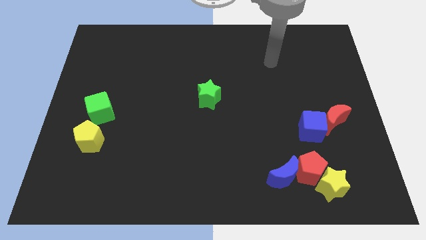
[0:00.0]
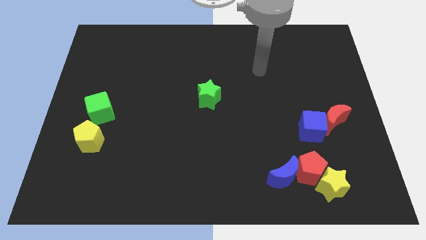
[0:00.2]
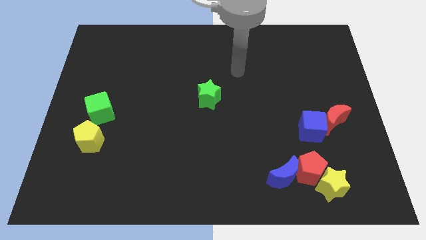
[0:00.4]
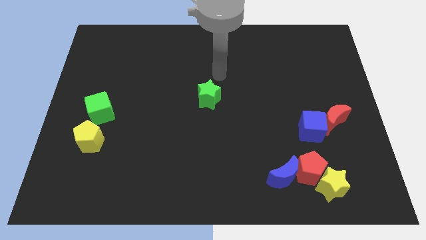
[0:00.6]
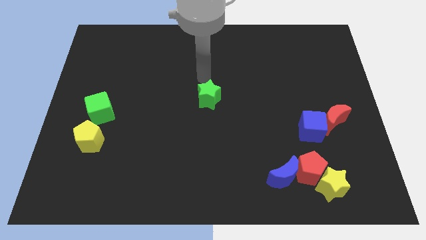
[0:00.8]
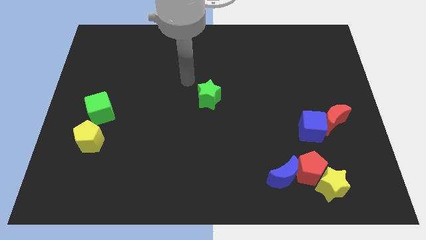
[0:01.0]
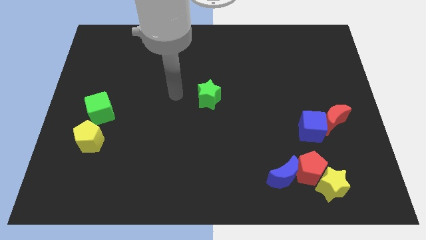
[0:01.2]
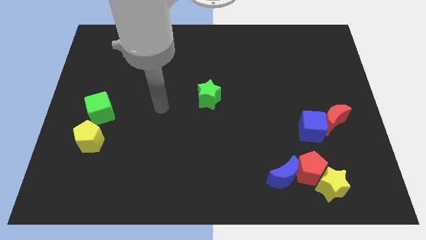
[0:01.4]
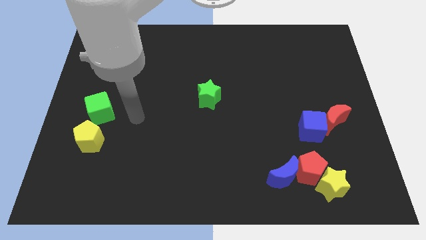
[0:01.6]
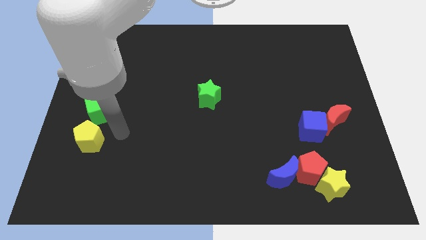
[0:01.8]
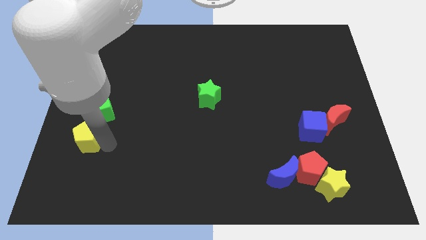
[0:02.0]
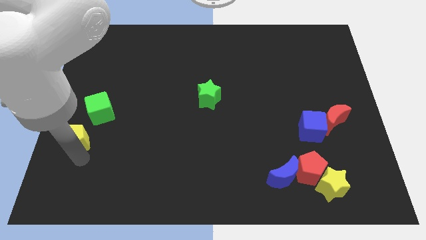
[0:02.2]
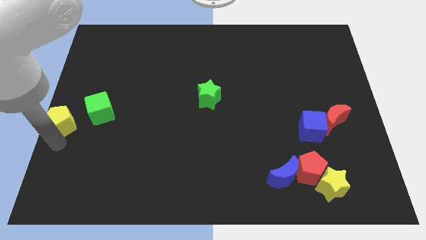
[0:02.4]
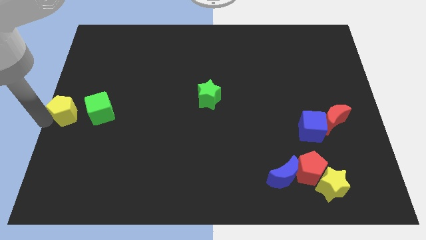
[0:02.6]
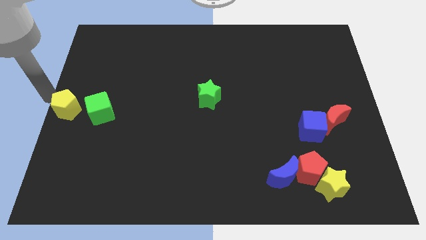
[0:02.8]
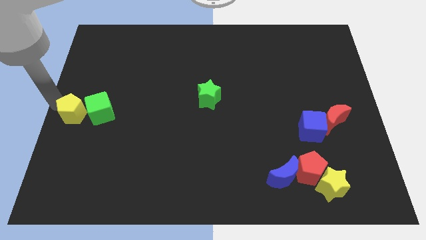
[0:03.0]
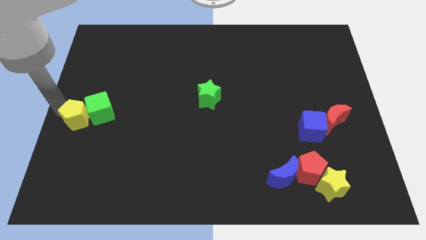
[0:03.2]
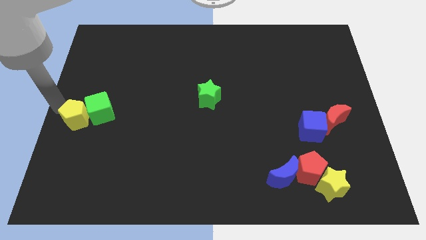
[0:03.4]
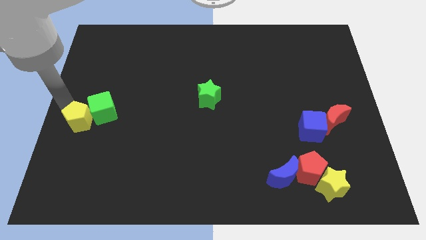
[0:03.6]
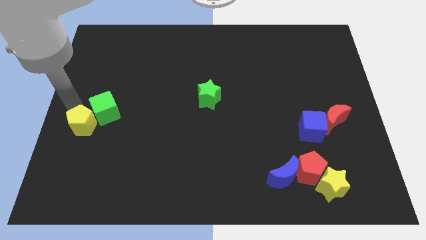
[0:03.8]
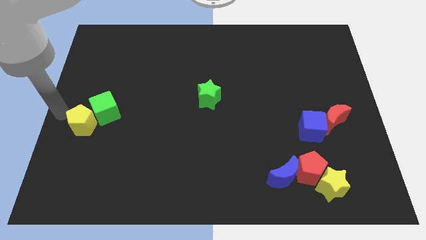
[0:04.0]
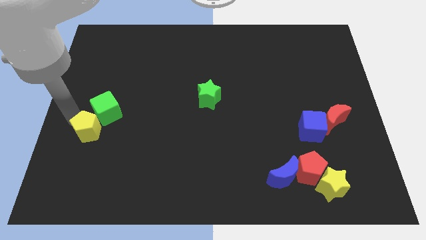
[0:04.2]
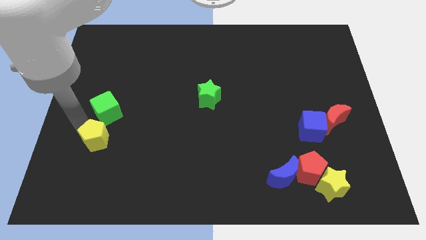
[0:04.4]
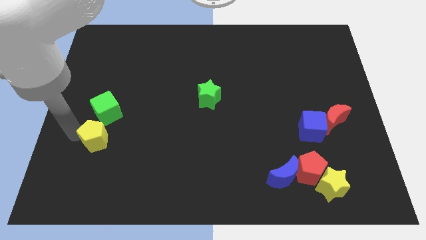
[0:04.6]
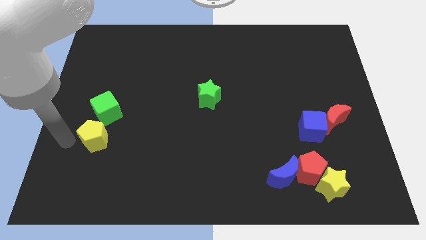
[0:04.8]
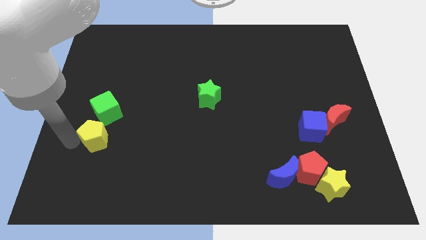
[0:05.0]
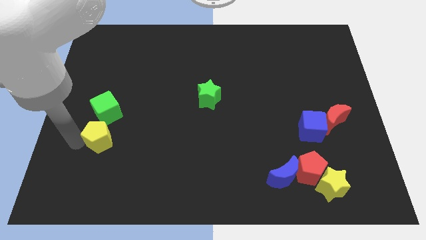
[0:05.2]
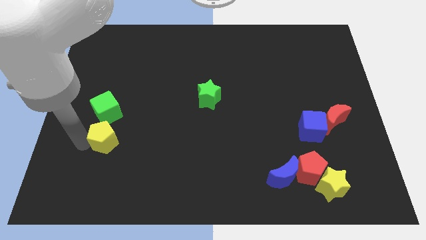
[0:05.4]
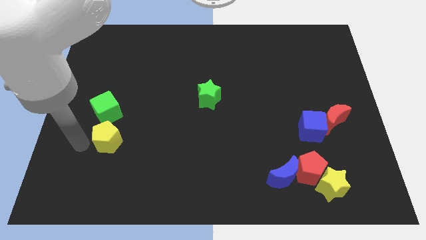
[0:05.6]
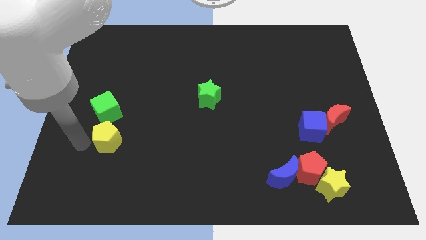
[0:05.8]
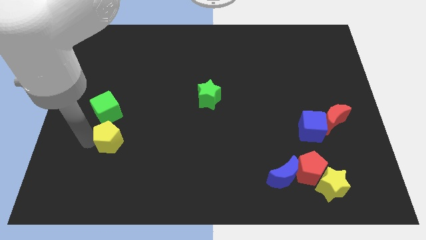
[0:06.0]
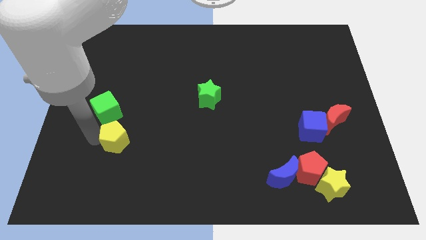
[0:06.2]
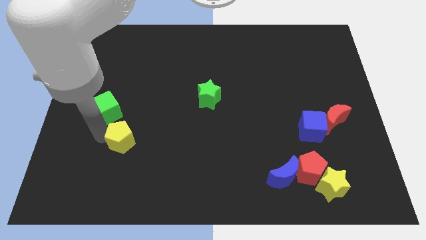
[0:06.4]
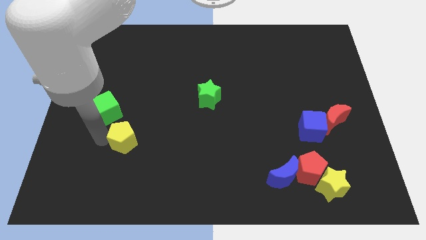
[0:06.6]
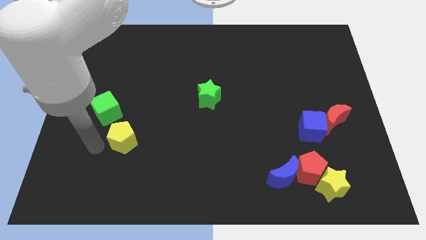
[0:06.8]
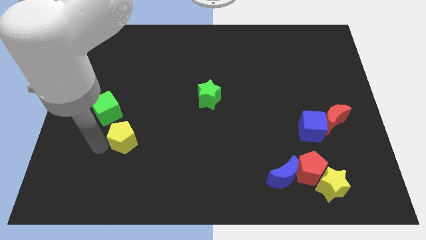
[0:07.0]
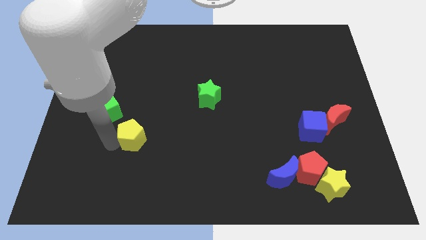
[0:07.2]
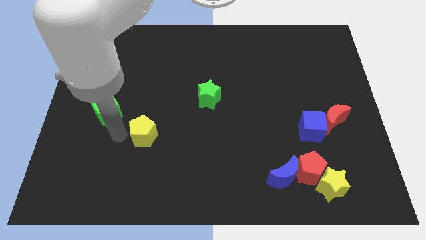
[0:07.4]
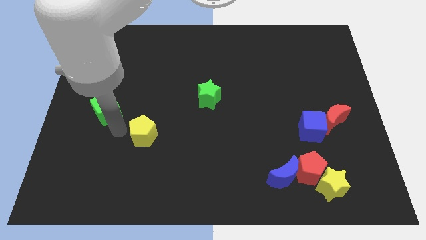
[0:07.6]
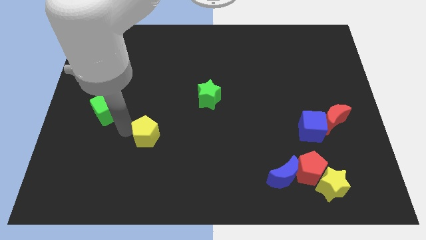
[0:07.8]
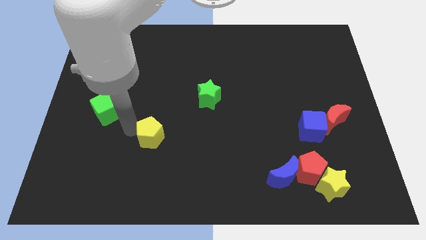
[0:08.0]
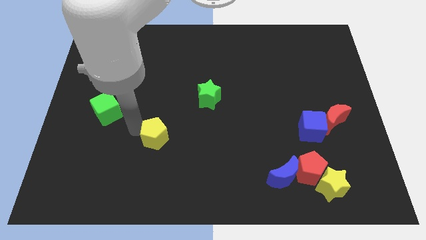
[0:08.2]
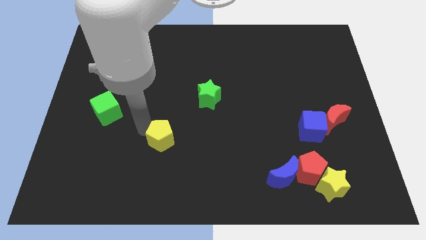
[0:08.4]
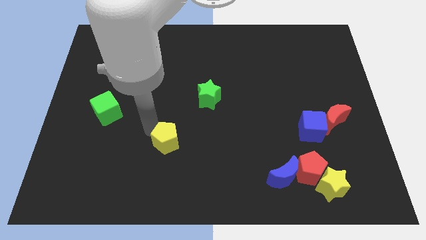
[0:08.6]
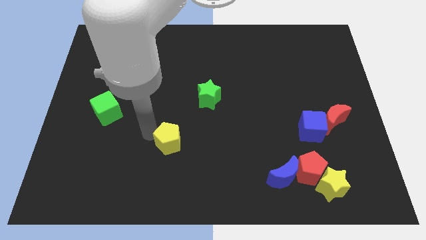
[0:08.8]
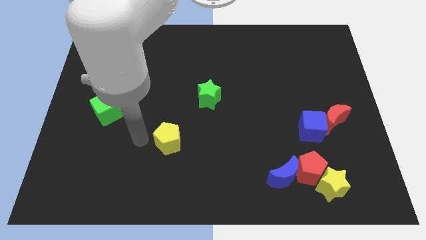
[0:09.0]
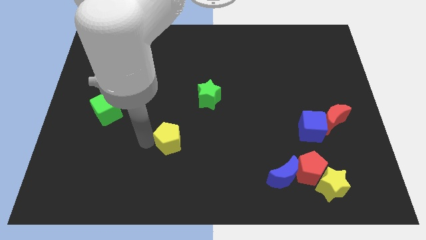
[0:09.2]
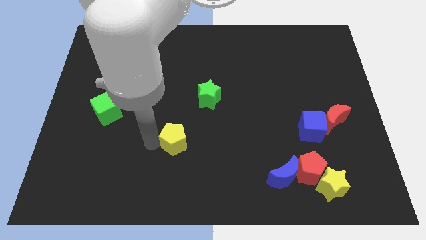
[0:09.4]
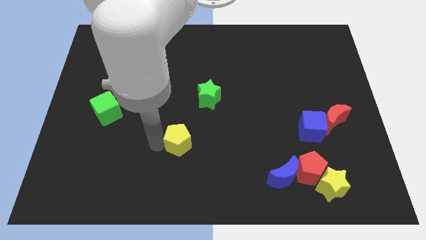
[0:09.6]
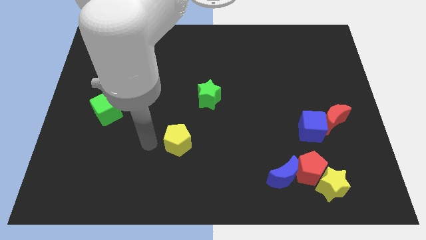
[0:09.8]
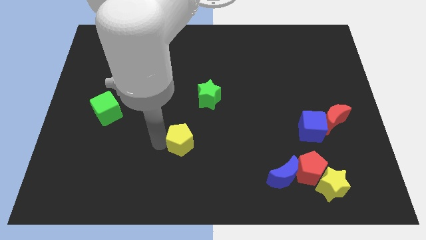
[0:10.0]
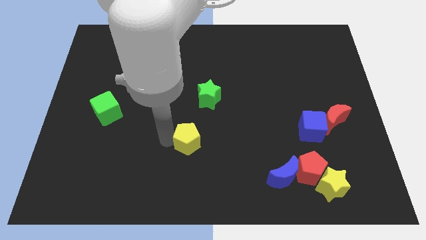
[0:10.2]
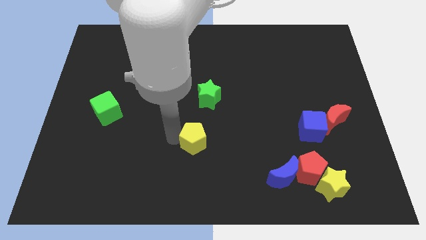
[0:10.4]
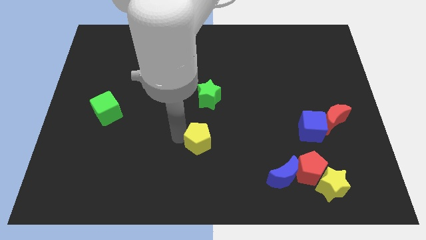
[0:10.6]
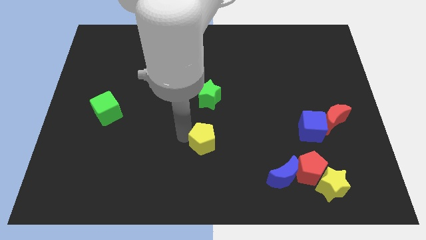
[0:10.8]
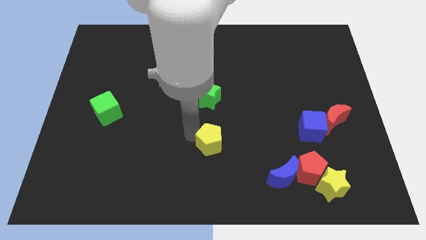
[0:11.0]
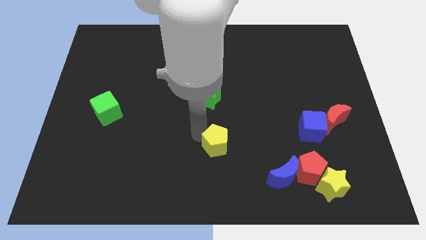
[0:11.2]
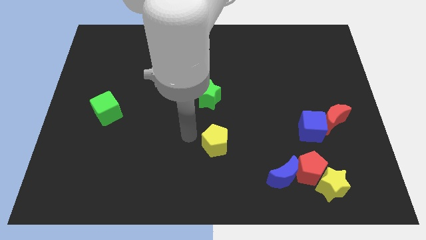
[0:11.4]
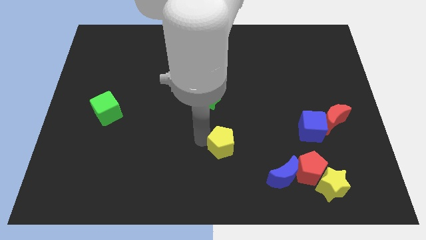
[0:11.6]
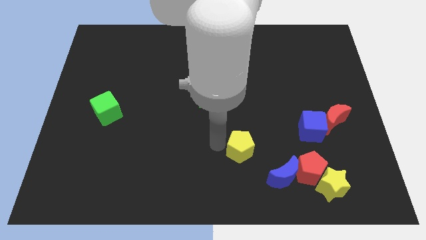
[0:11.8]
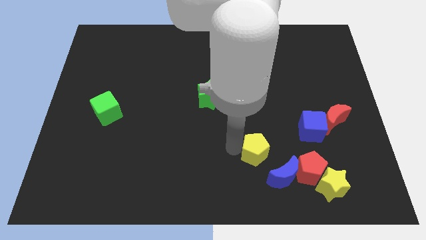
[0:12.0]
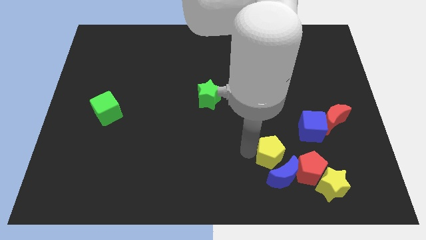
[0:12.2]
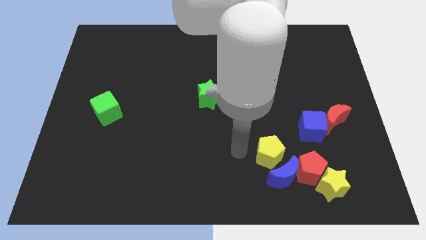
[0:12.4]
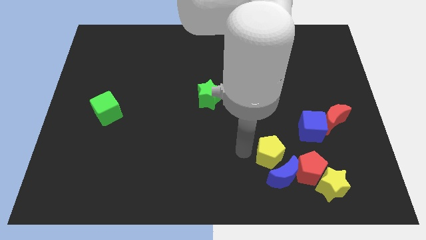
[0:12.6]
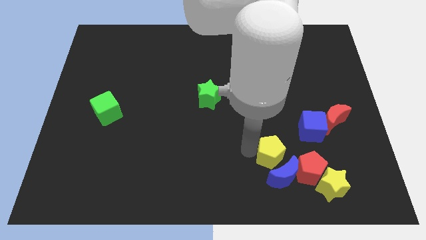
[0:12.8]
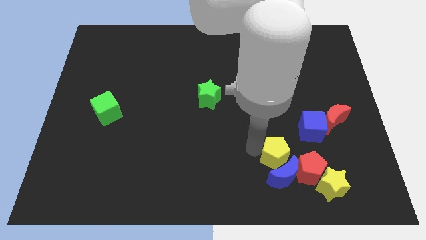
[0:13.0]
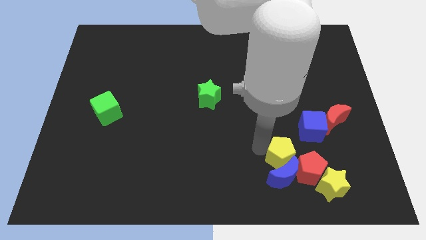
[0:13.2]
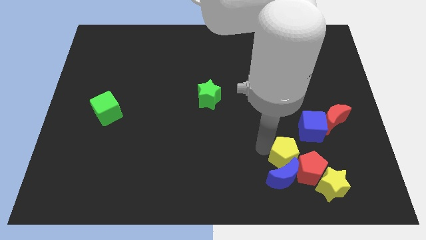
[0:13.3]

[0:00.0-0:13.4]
move the yellow pentagon close to the red pentagon

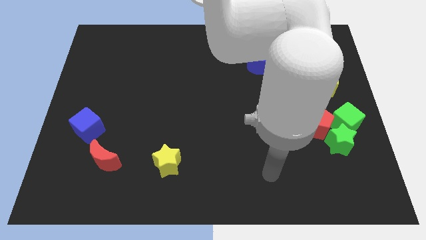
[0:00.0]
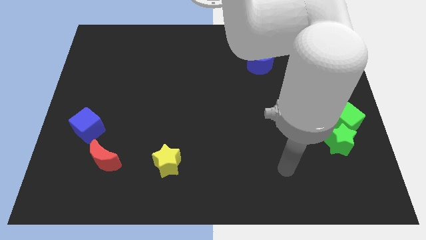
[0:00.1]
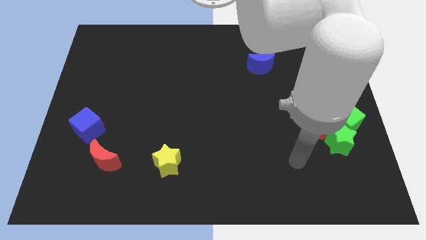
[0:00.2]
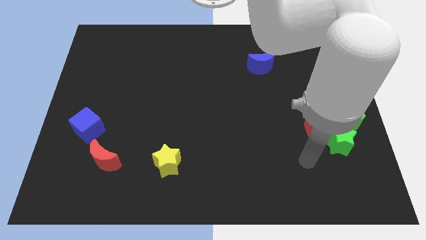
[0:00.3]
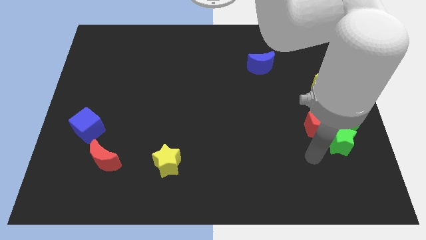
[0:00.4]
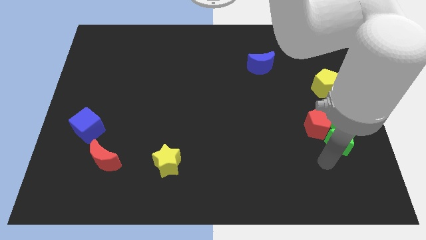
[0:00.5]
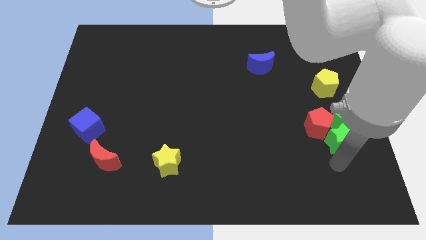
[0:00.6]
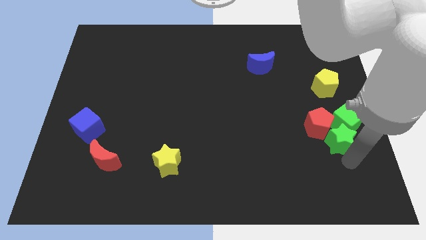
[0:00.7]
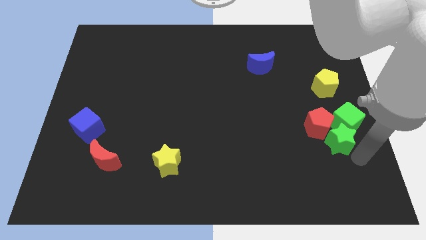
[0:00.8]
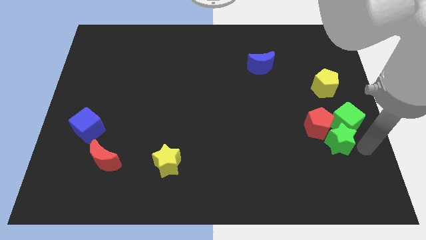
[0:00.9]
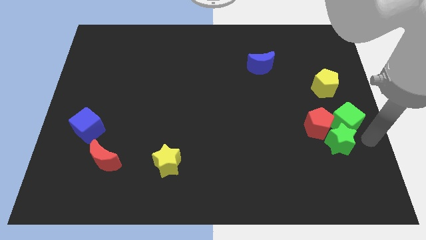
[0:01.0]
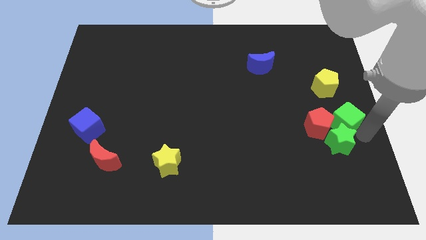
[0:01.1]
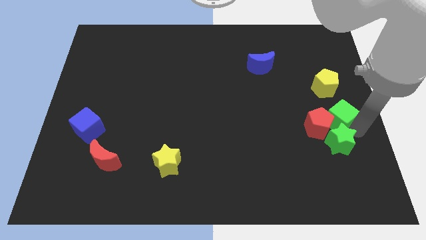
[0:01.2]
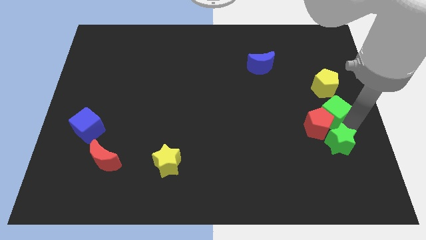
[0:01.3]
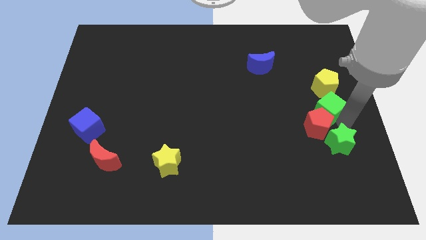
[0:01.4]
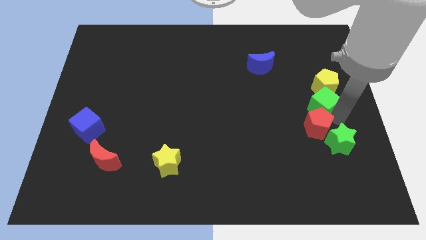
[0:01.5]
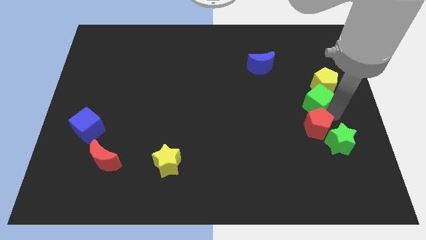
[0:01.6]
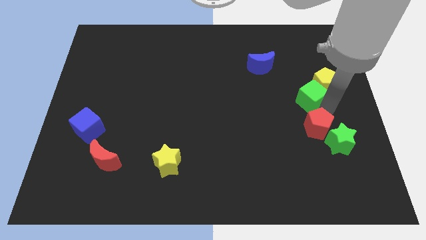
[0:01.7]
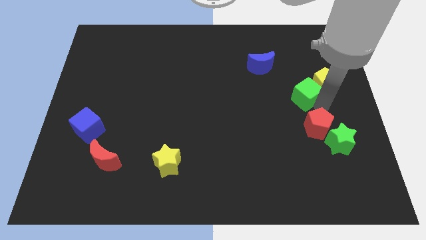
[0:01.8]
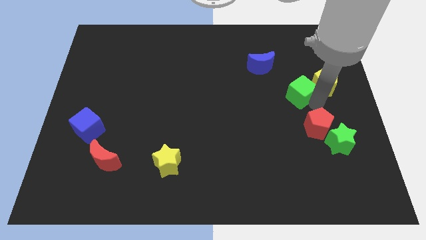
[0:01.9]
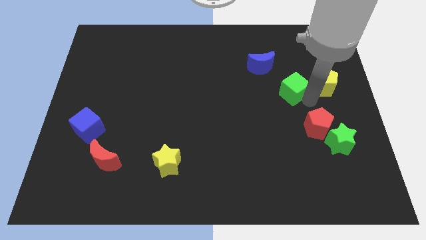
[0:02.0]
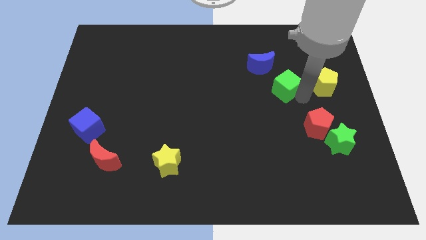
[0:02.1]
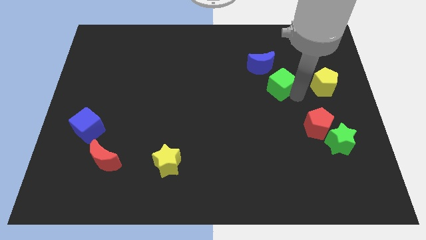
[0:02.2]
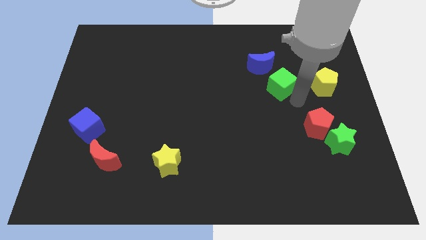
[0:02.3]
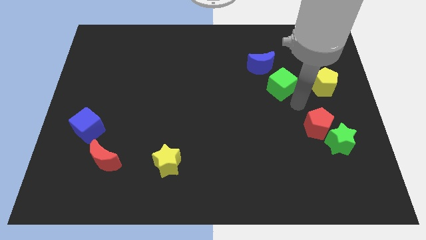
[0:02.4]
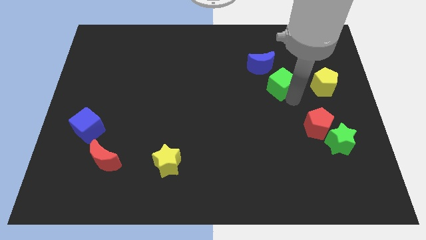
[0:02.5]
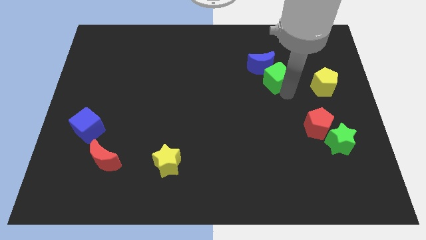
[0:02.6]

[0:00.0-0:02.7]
move the green cube to the blue moon
